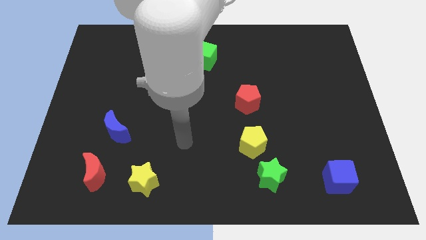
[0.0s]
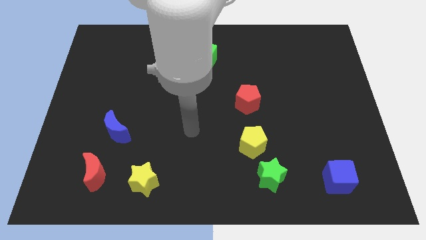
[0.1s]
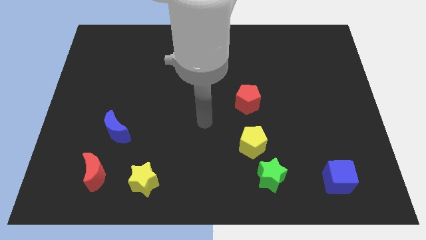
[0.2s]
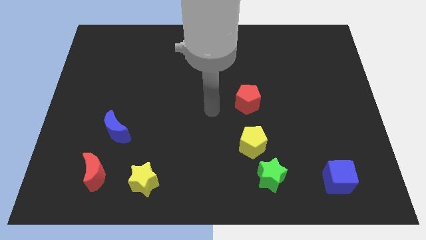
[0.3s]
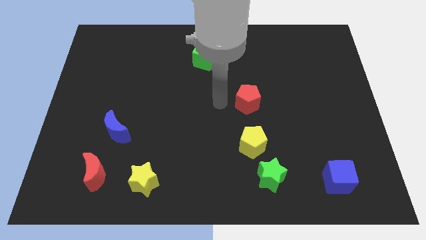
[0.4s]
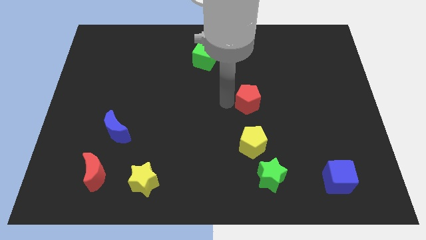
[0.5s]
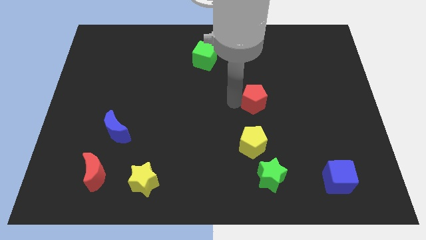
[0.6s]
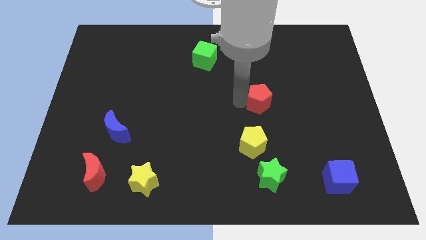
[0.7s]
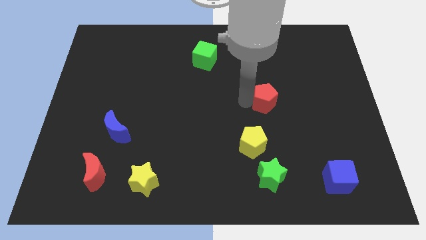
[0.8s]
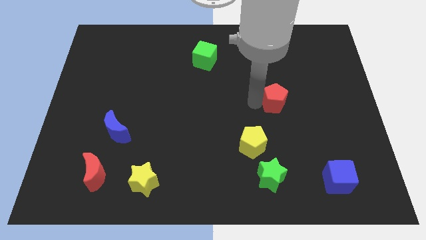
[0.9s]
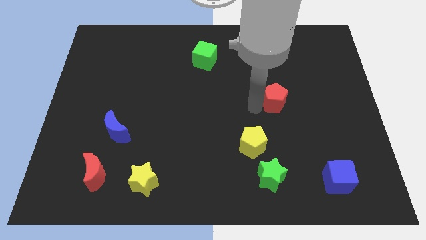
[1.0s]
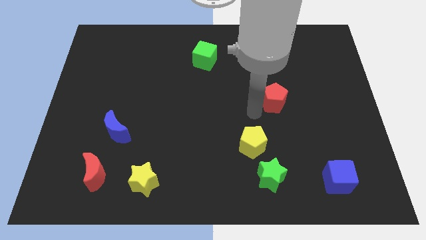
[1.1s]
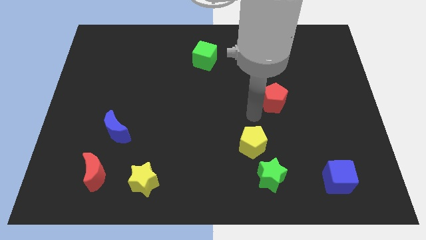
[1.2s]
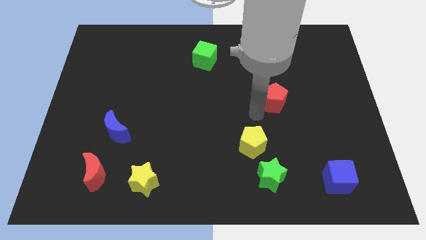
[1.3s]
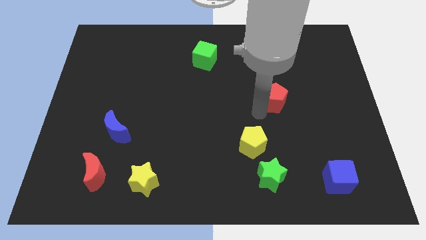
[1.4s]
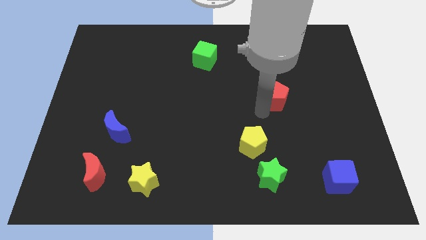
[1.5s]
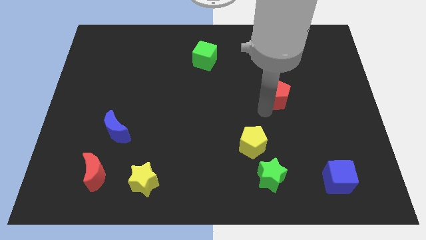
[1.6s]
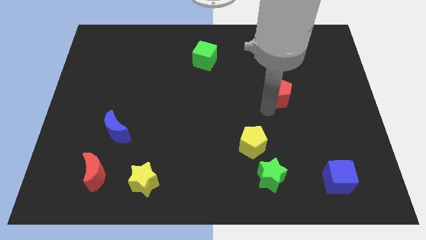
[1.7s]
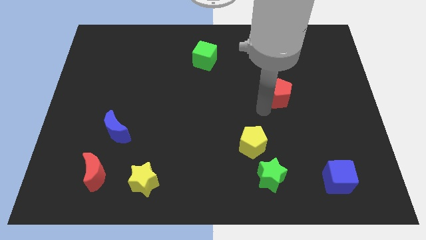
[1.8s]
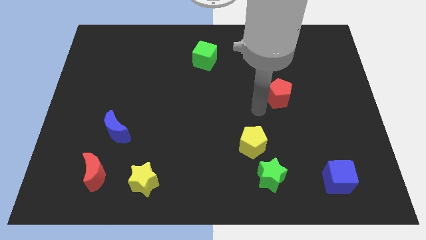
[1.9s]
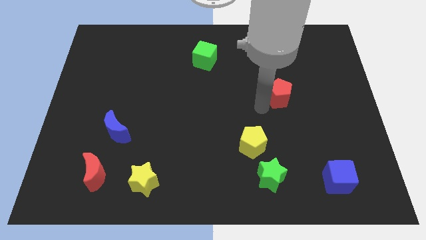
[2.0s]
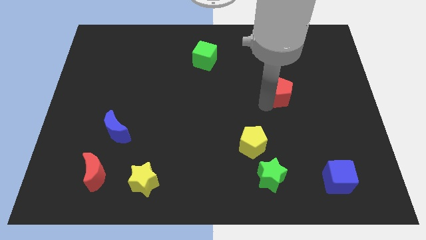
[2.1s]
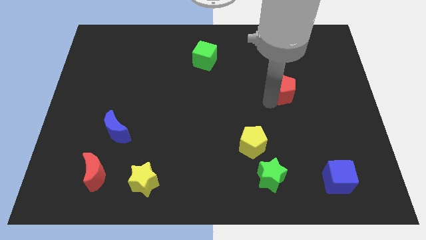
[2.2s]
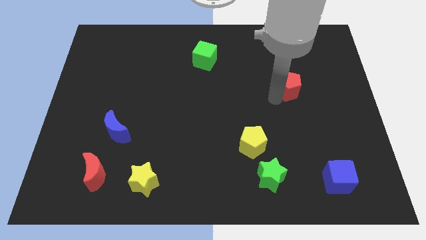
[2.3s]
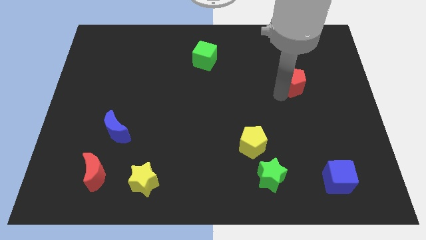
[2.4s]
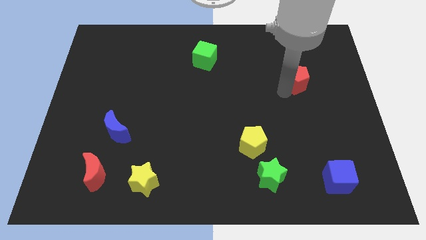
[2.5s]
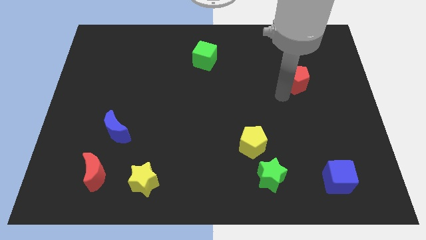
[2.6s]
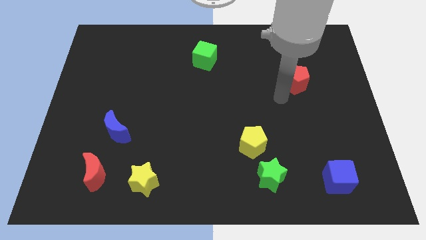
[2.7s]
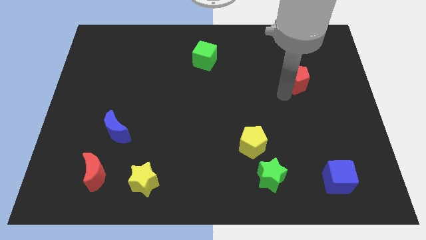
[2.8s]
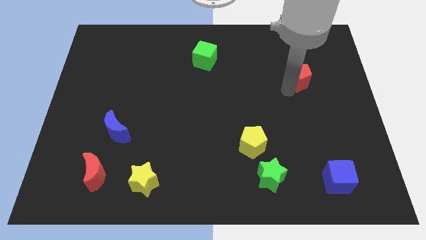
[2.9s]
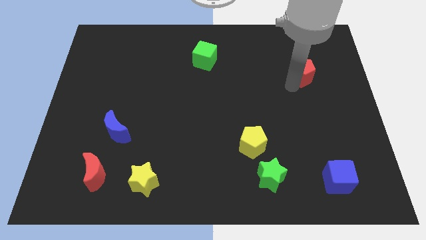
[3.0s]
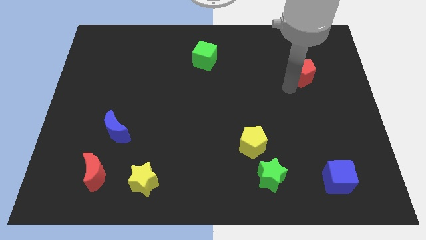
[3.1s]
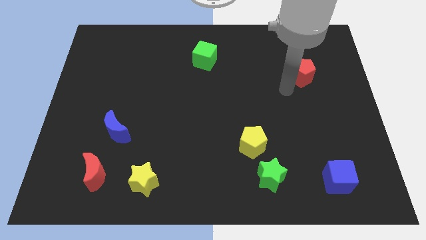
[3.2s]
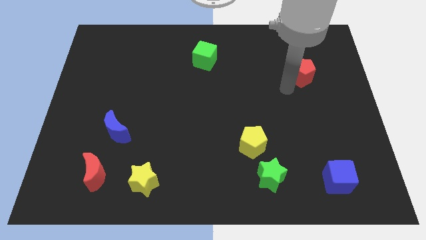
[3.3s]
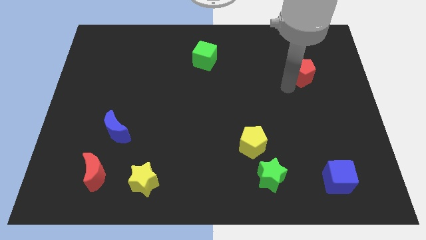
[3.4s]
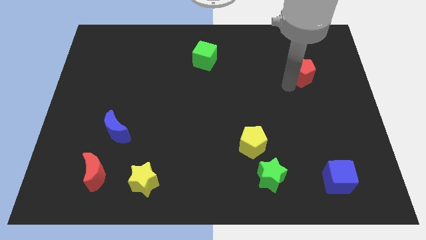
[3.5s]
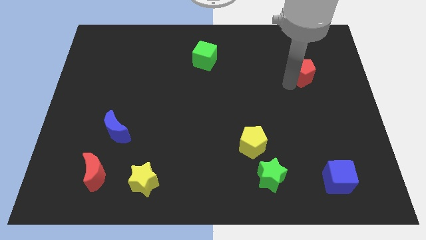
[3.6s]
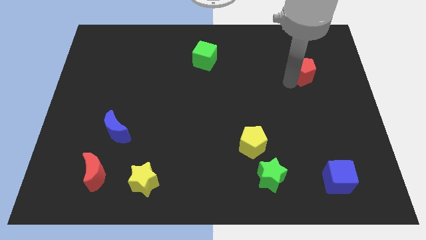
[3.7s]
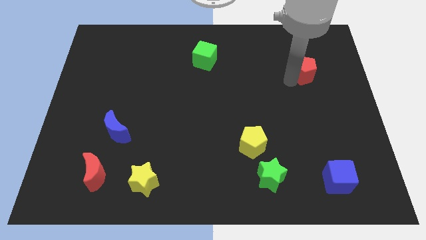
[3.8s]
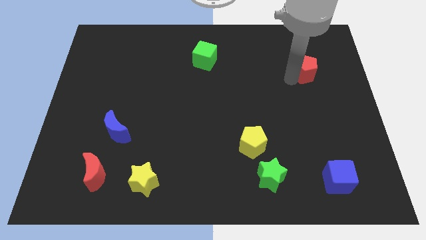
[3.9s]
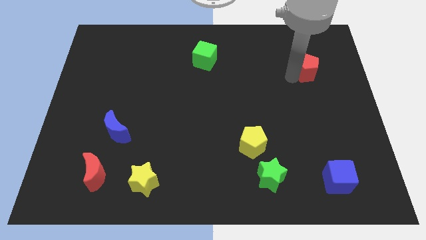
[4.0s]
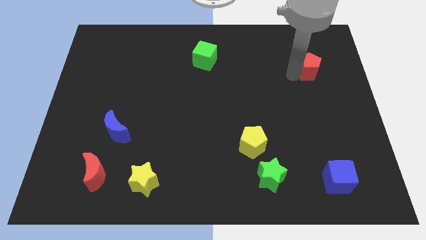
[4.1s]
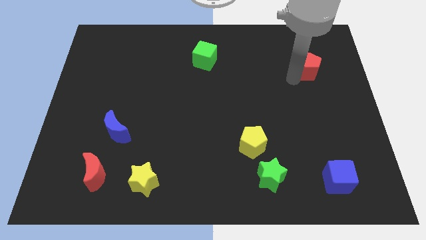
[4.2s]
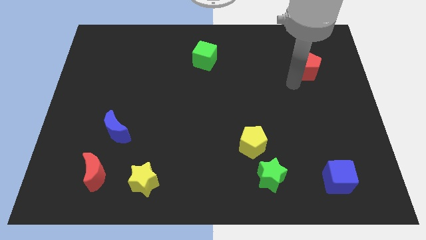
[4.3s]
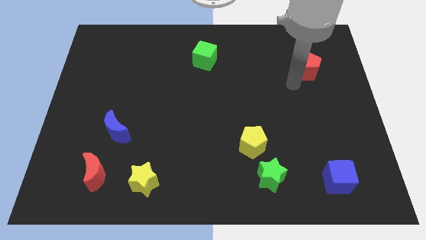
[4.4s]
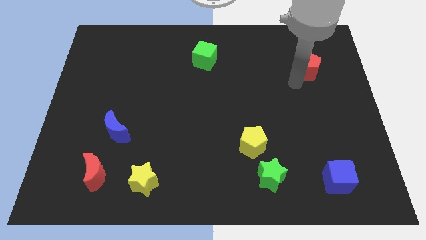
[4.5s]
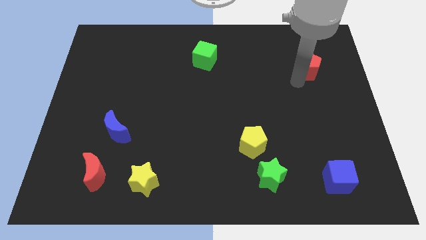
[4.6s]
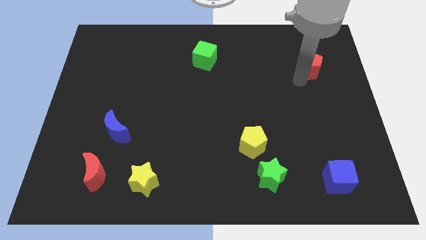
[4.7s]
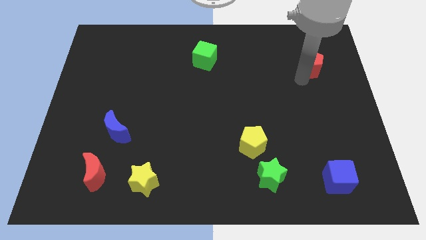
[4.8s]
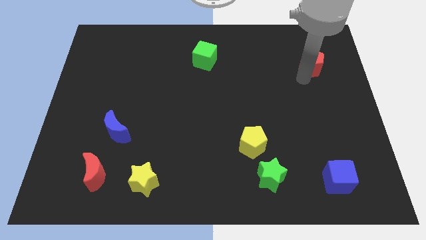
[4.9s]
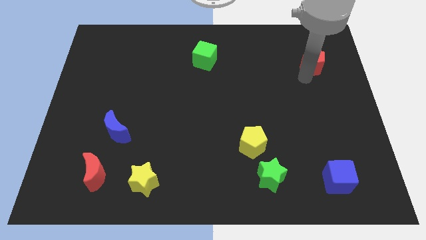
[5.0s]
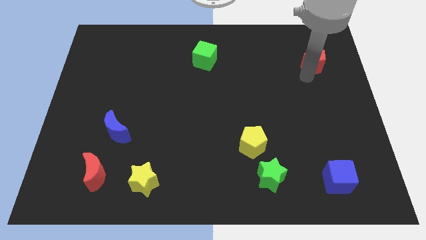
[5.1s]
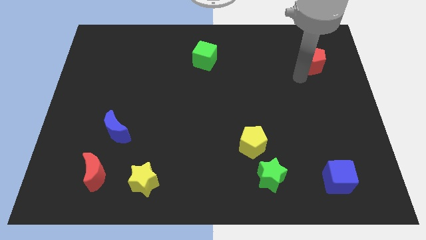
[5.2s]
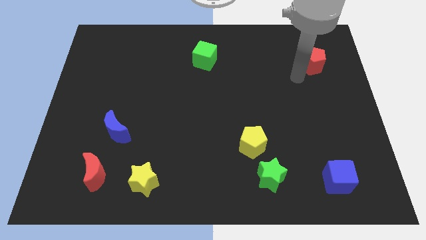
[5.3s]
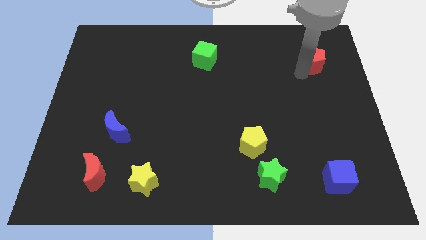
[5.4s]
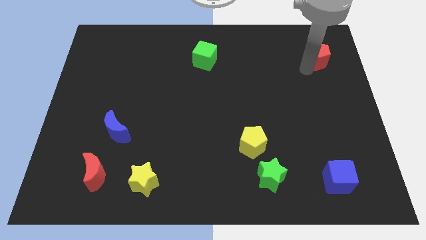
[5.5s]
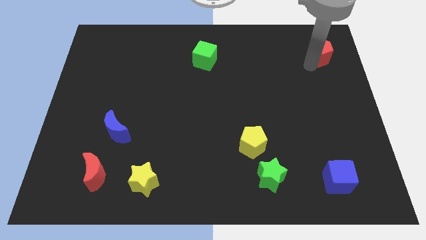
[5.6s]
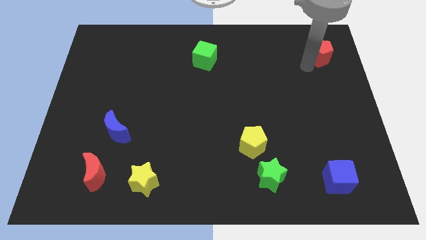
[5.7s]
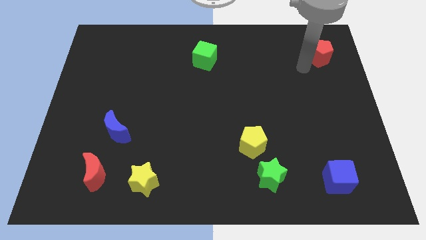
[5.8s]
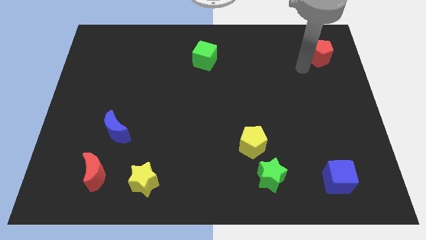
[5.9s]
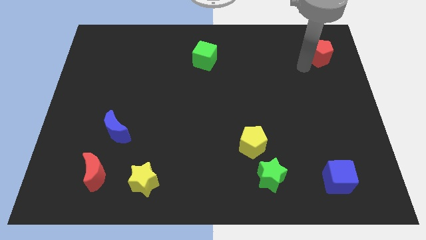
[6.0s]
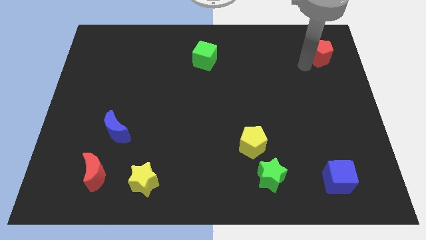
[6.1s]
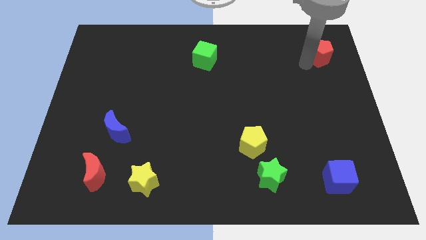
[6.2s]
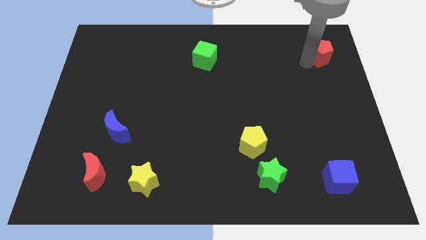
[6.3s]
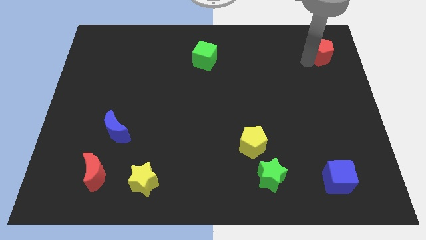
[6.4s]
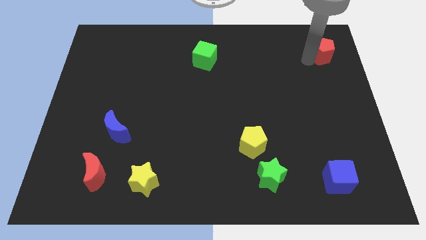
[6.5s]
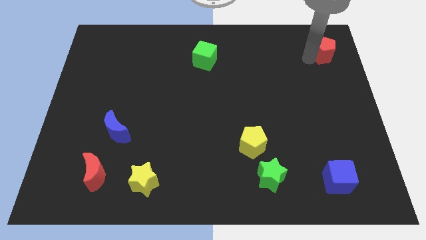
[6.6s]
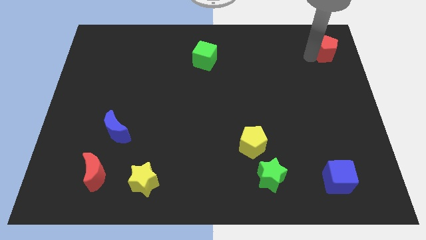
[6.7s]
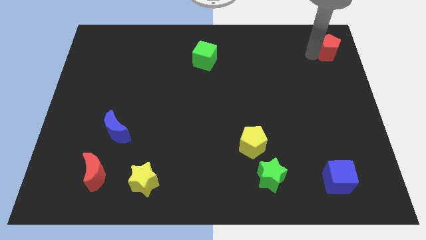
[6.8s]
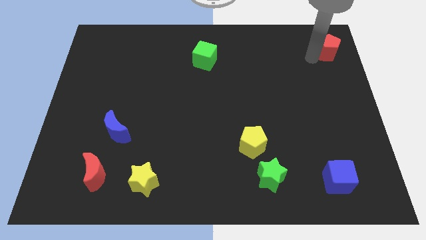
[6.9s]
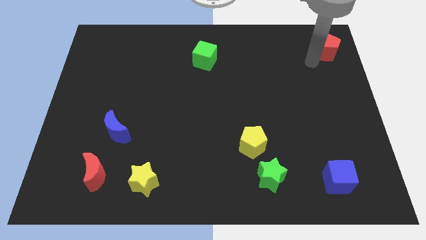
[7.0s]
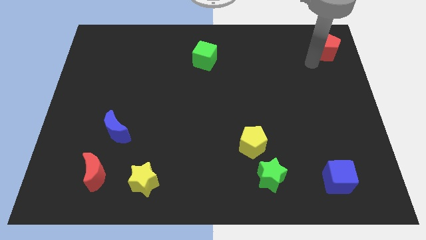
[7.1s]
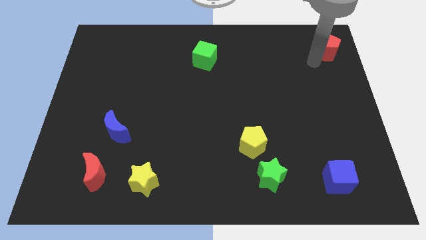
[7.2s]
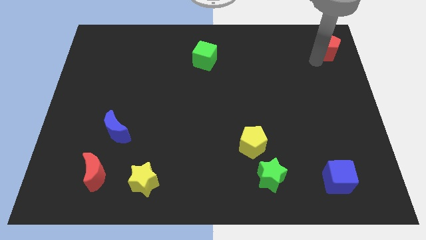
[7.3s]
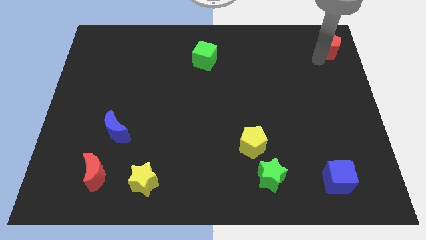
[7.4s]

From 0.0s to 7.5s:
put the red pentagon to the top right corner
